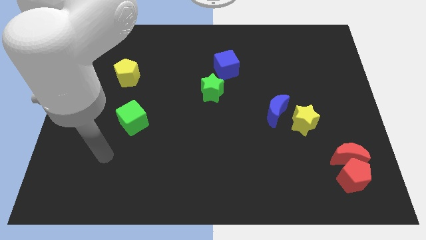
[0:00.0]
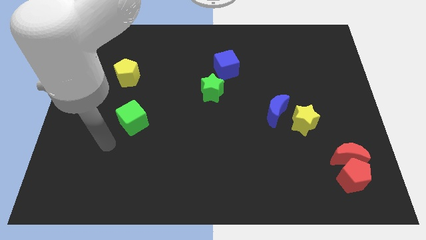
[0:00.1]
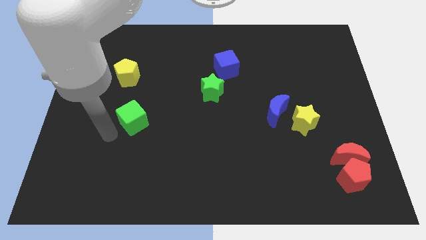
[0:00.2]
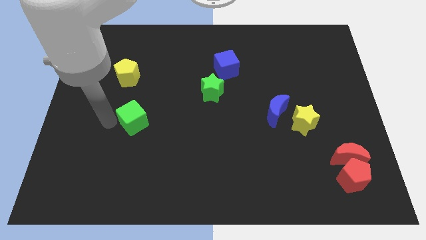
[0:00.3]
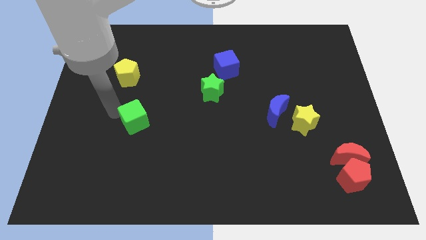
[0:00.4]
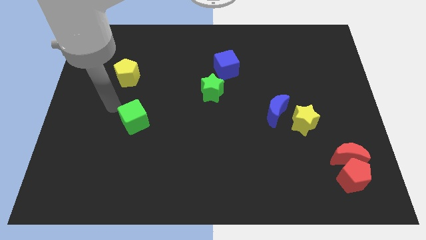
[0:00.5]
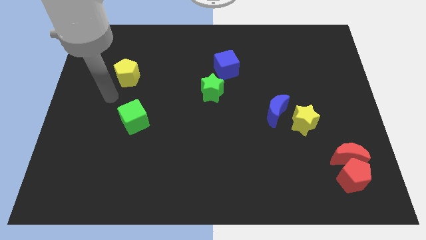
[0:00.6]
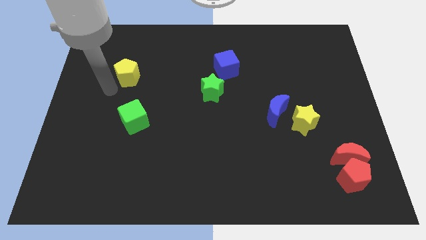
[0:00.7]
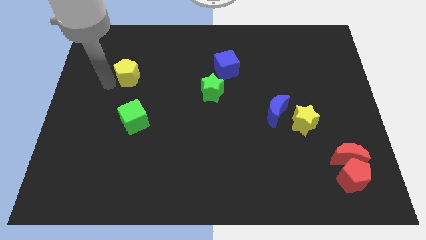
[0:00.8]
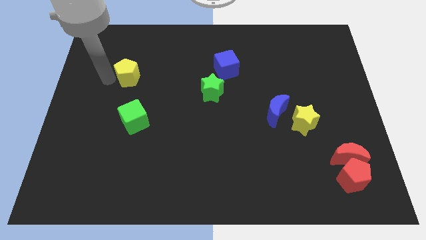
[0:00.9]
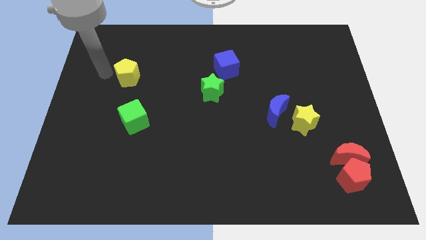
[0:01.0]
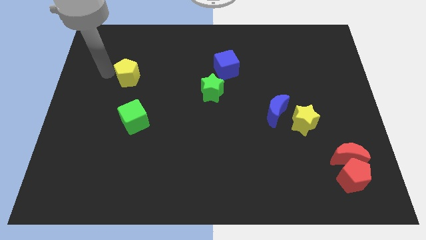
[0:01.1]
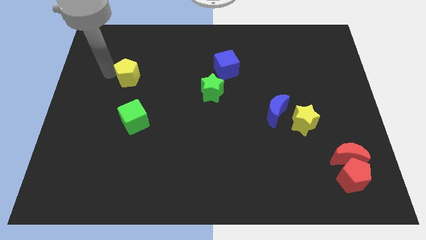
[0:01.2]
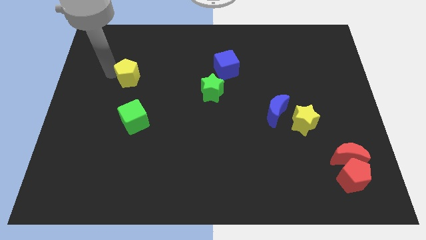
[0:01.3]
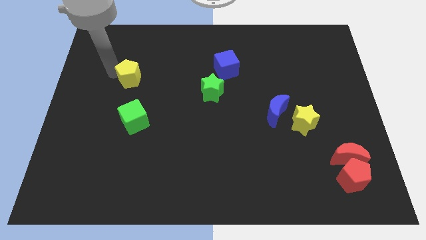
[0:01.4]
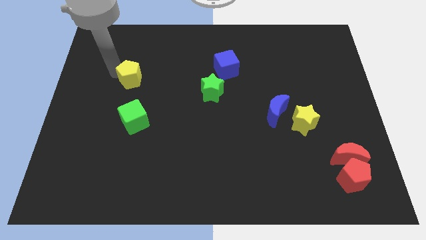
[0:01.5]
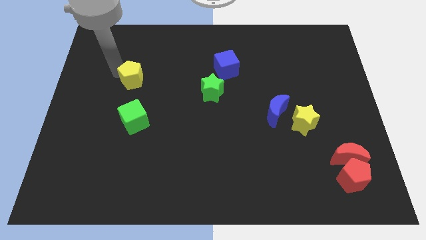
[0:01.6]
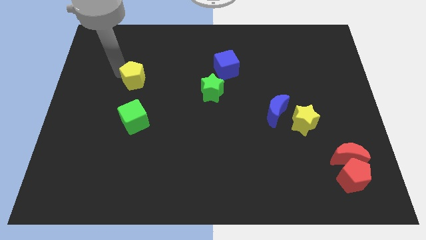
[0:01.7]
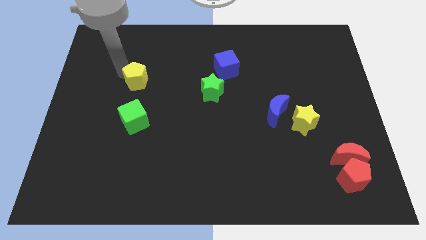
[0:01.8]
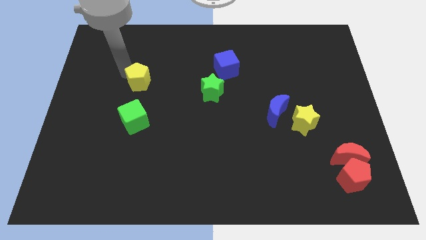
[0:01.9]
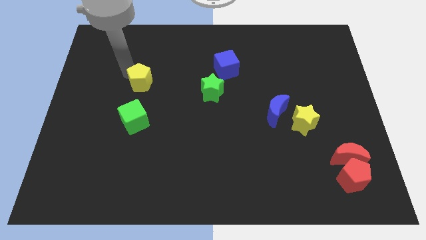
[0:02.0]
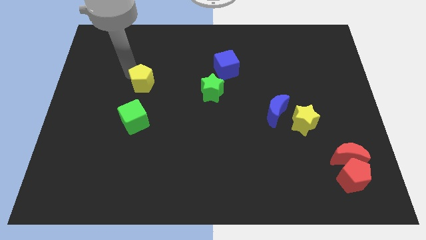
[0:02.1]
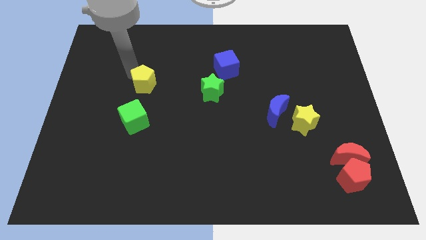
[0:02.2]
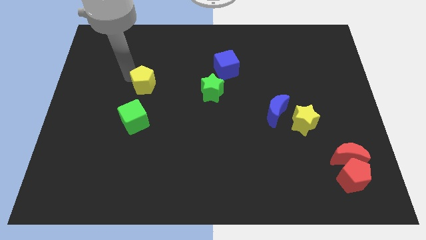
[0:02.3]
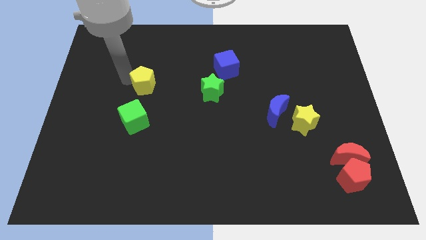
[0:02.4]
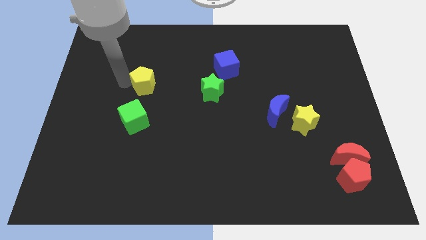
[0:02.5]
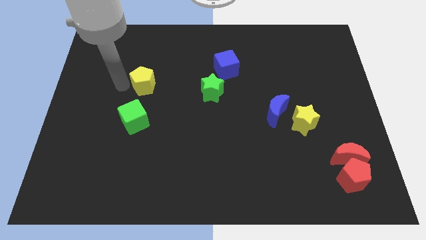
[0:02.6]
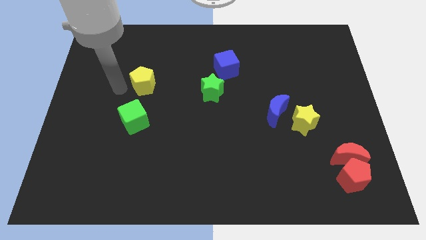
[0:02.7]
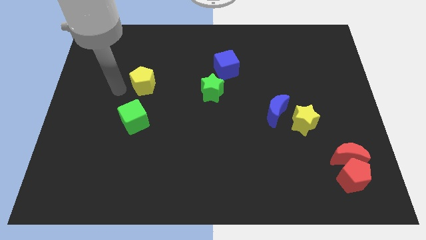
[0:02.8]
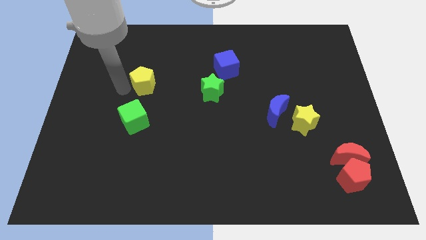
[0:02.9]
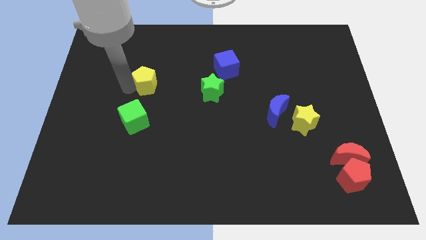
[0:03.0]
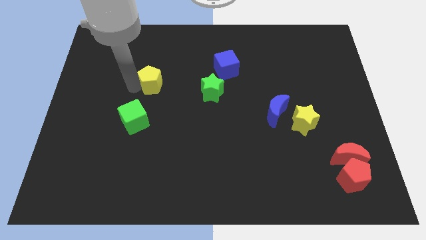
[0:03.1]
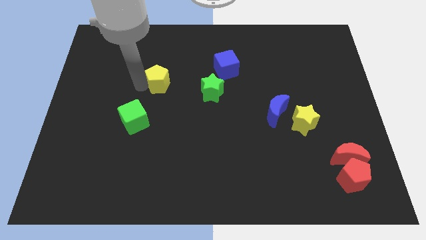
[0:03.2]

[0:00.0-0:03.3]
slightly move the yellow pentagon to the right

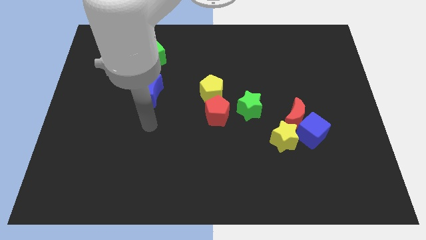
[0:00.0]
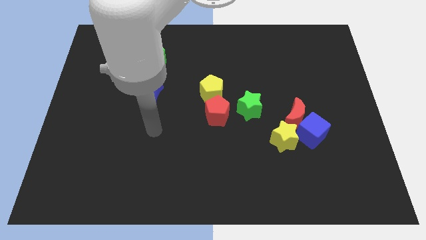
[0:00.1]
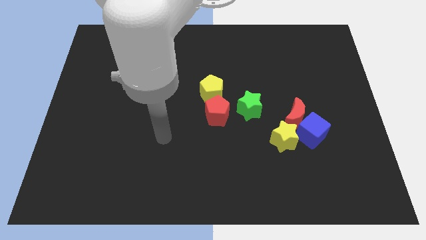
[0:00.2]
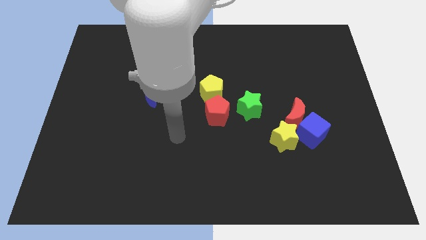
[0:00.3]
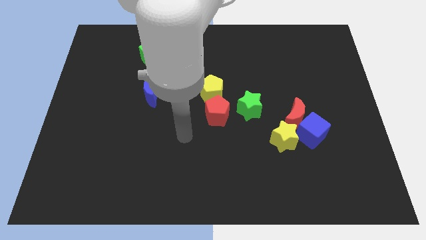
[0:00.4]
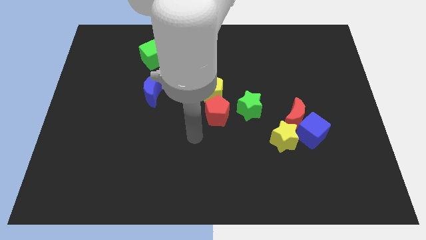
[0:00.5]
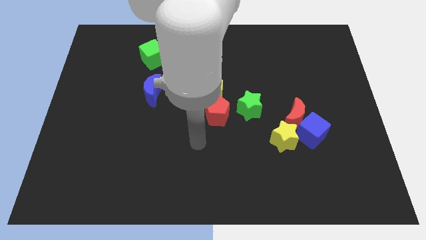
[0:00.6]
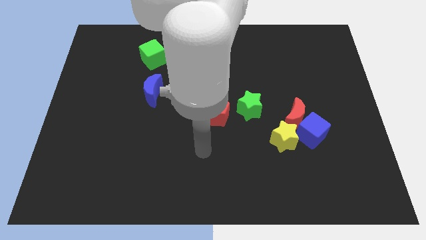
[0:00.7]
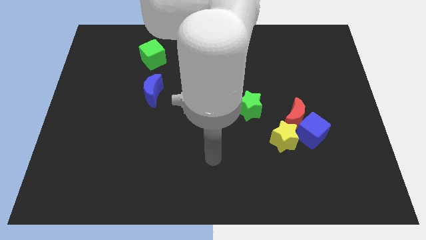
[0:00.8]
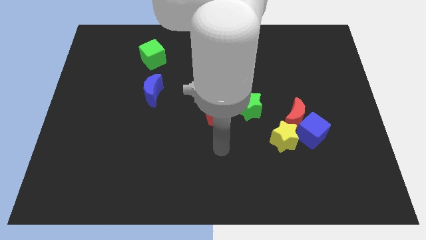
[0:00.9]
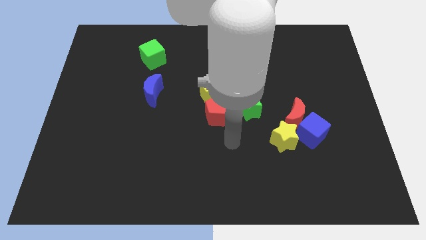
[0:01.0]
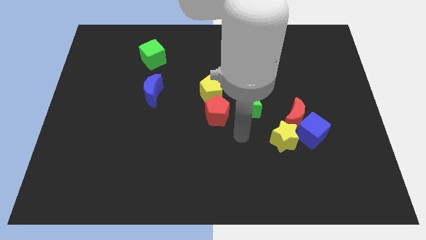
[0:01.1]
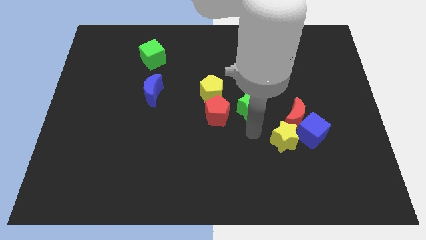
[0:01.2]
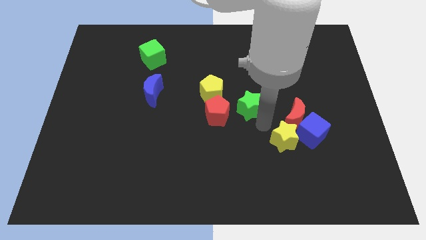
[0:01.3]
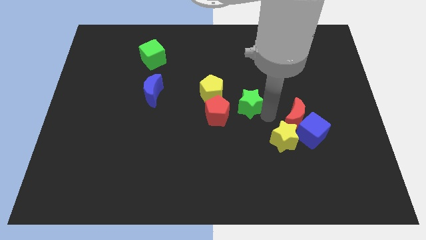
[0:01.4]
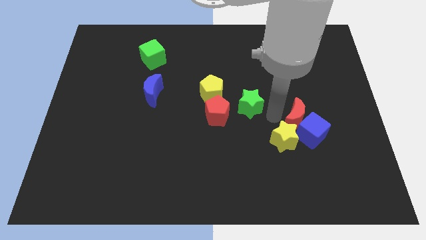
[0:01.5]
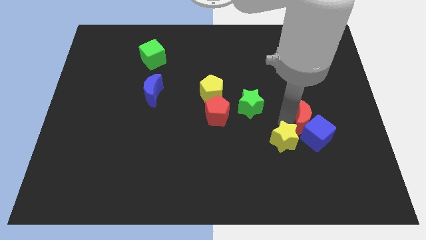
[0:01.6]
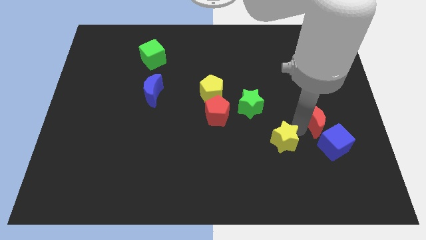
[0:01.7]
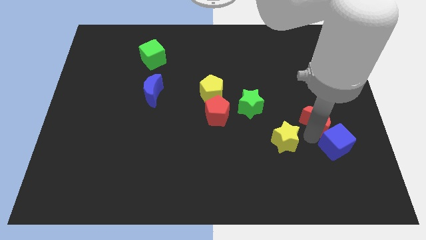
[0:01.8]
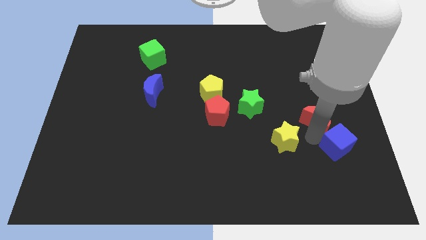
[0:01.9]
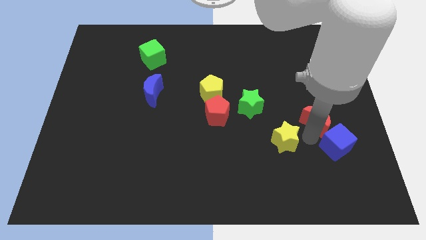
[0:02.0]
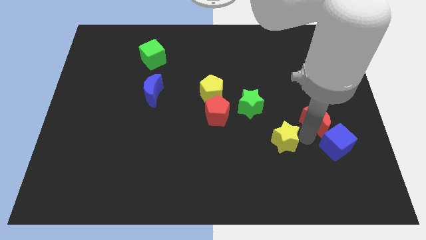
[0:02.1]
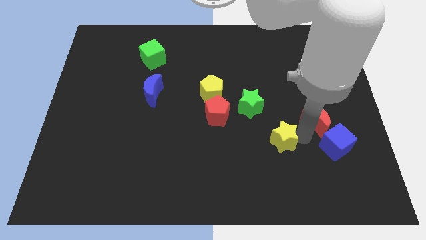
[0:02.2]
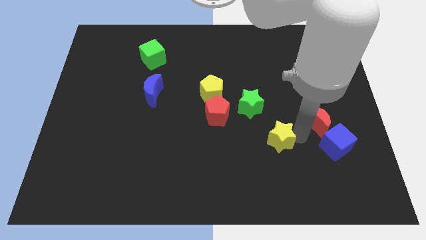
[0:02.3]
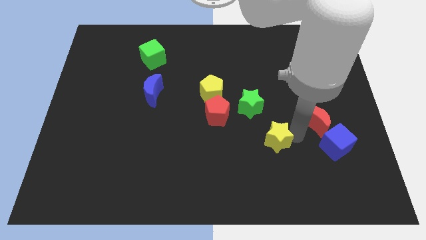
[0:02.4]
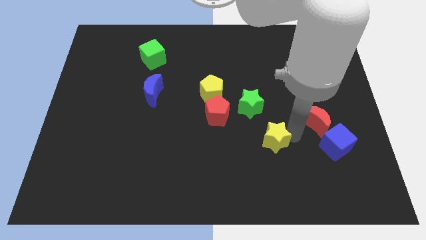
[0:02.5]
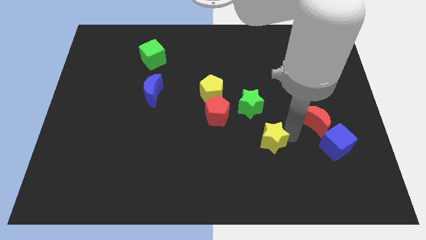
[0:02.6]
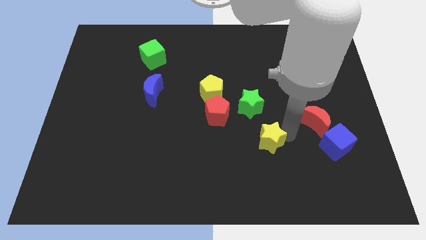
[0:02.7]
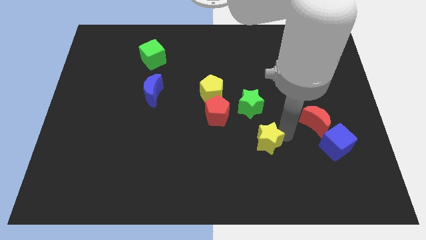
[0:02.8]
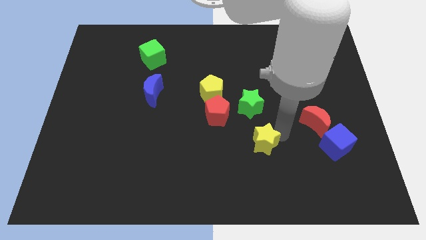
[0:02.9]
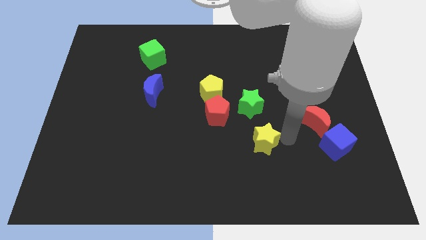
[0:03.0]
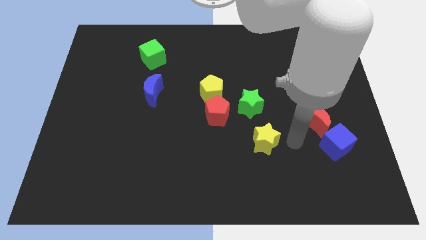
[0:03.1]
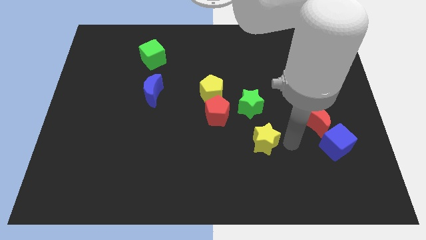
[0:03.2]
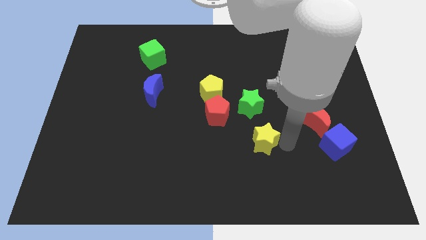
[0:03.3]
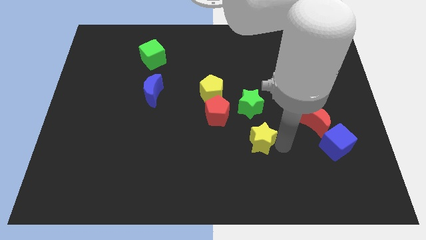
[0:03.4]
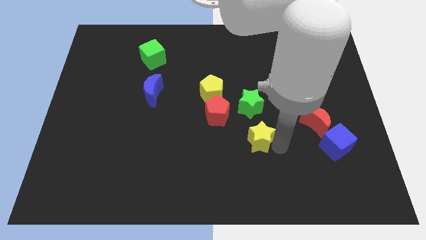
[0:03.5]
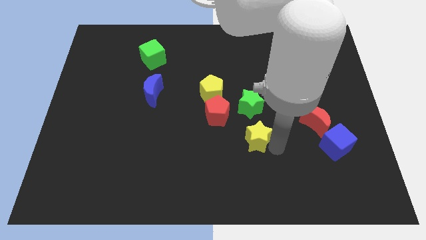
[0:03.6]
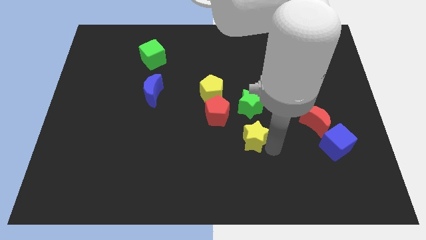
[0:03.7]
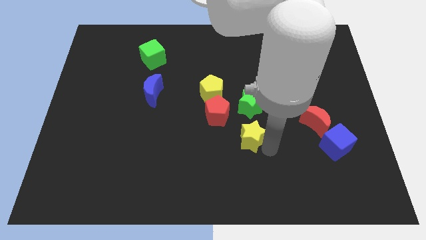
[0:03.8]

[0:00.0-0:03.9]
push the yellow star a little to the left

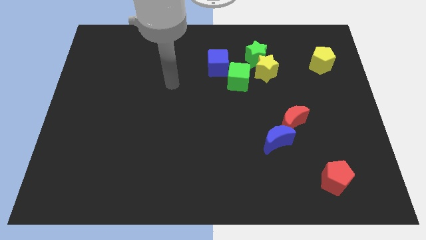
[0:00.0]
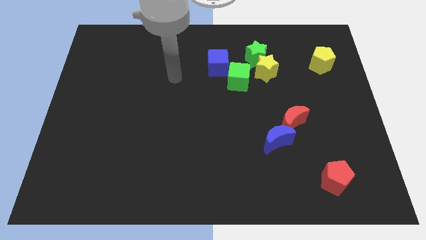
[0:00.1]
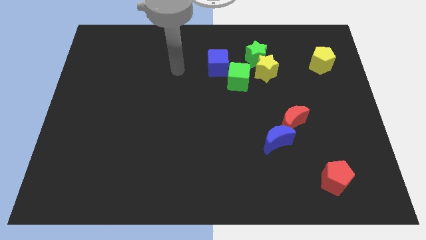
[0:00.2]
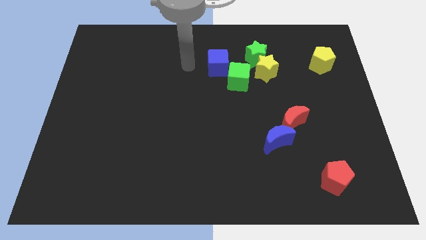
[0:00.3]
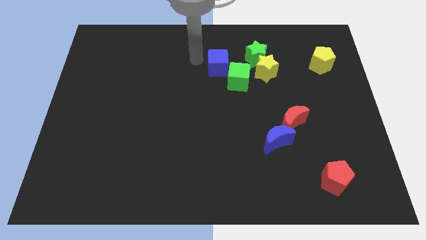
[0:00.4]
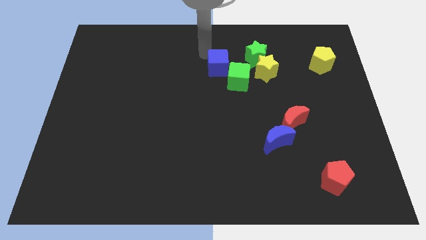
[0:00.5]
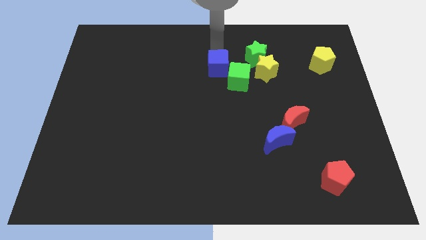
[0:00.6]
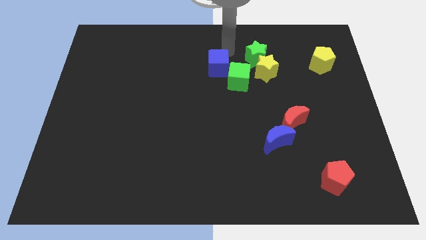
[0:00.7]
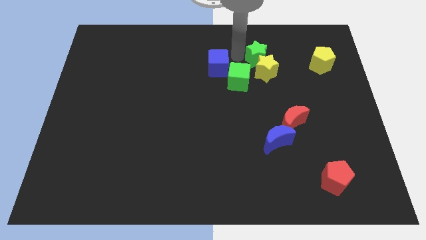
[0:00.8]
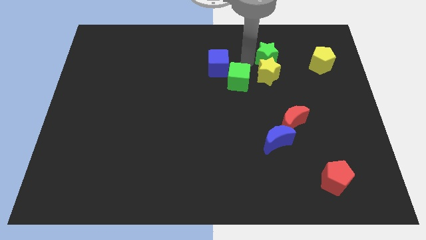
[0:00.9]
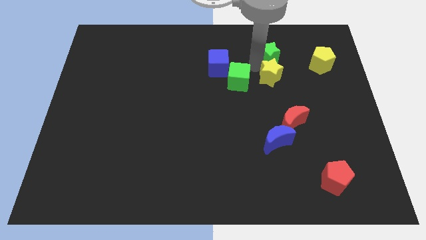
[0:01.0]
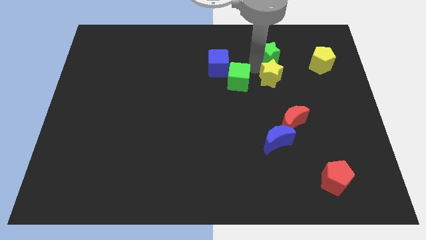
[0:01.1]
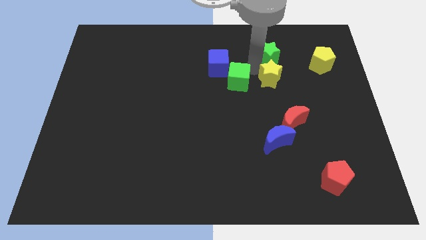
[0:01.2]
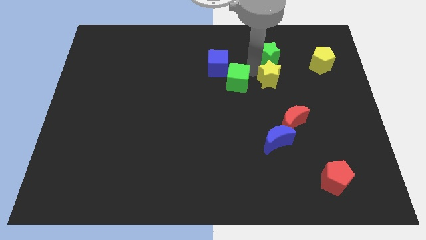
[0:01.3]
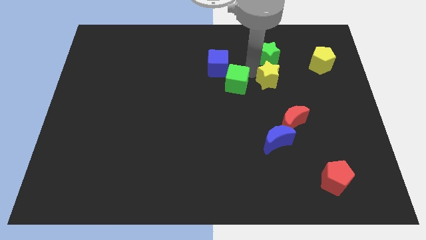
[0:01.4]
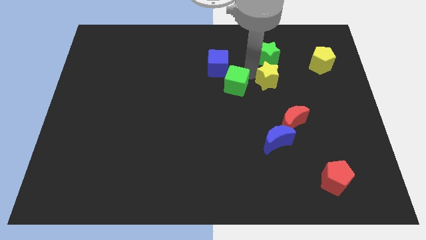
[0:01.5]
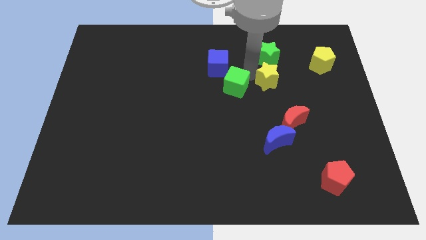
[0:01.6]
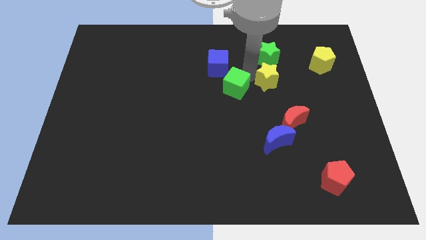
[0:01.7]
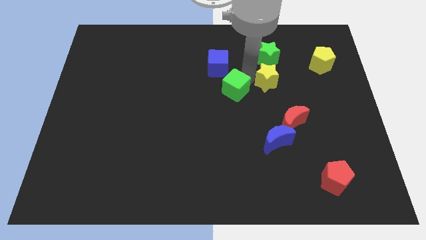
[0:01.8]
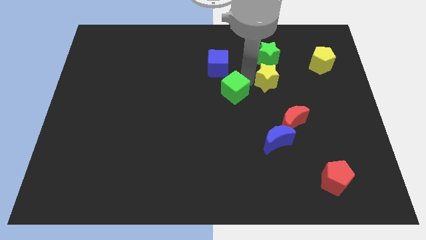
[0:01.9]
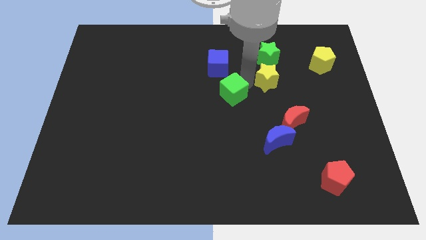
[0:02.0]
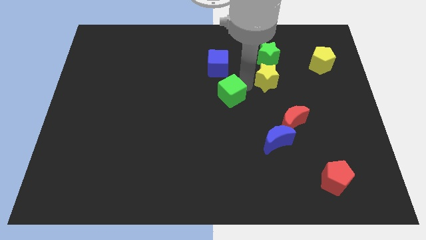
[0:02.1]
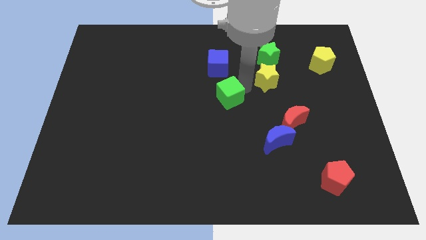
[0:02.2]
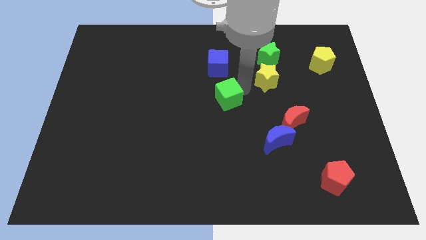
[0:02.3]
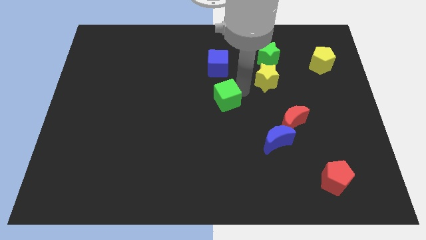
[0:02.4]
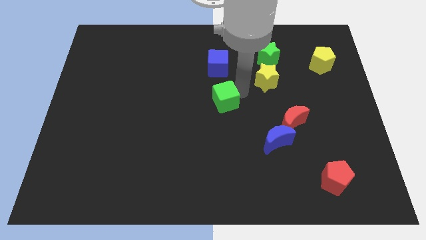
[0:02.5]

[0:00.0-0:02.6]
slightly slide the green cube downwards and to the left diagonally
